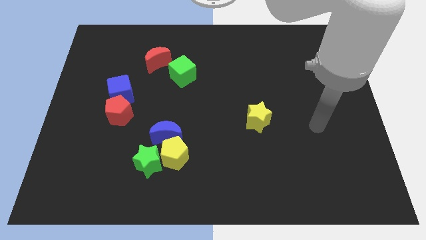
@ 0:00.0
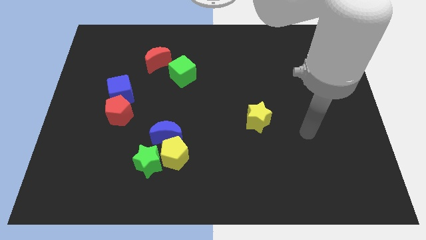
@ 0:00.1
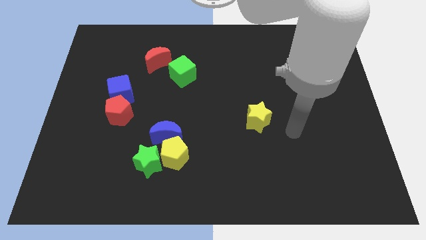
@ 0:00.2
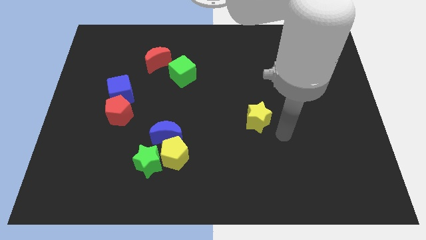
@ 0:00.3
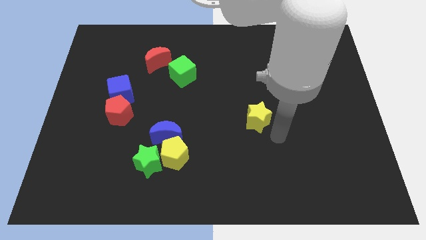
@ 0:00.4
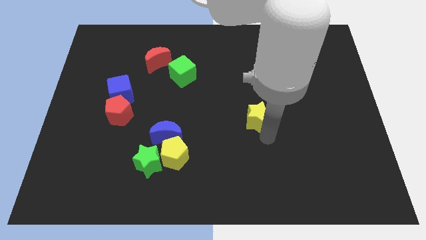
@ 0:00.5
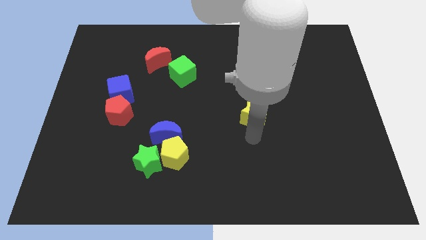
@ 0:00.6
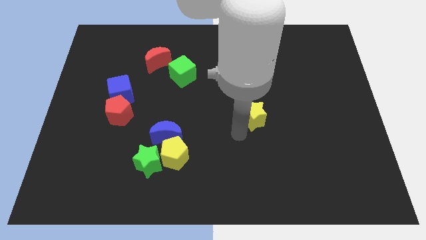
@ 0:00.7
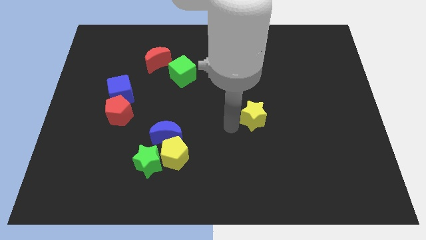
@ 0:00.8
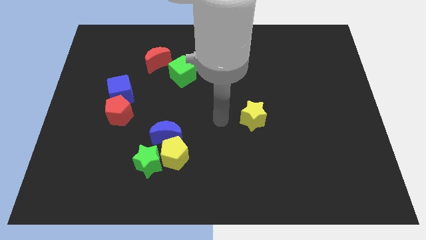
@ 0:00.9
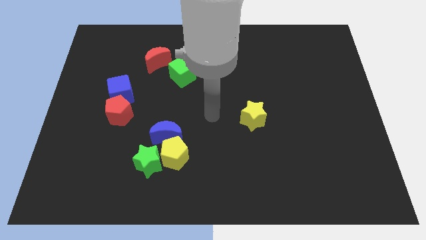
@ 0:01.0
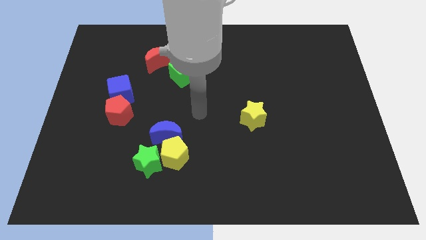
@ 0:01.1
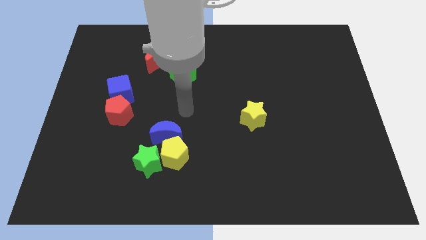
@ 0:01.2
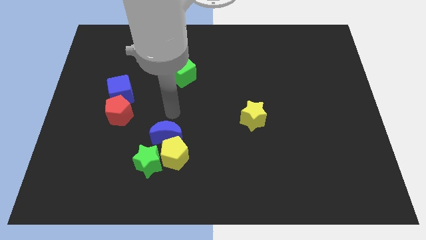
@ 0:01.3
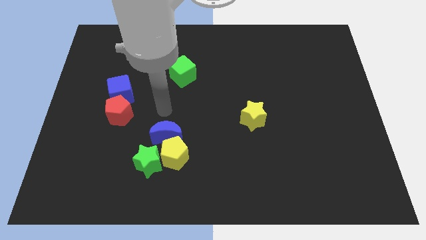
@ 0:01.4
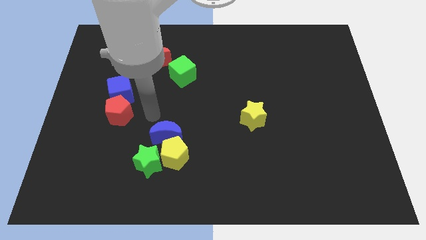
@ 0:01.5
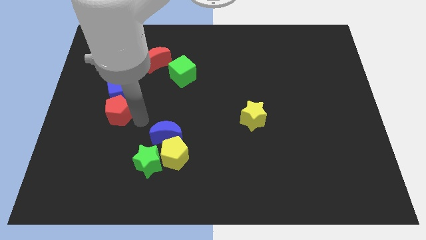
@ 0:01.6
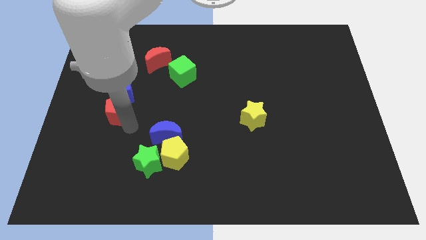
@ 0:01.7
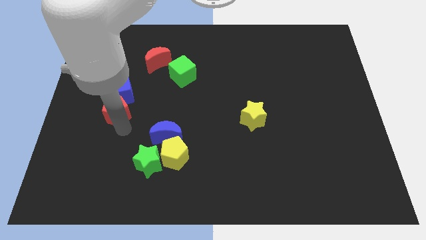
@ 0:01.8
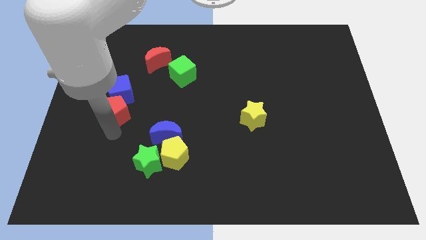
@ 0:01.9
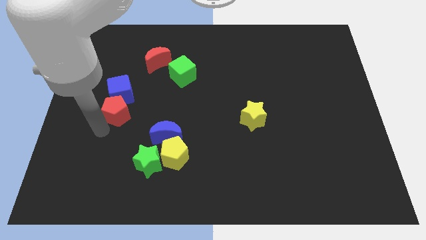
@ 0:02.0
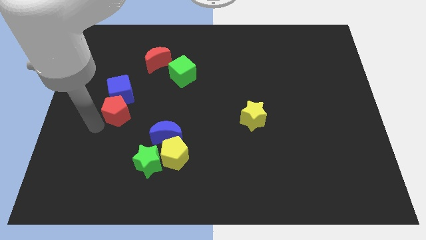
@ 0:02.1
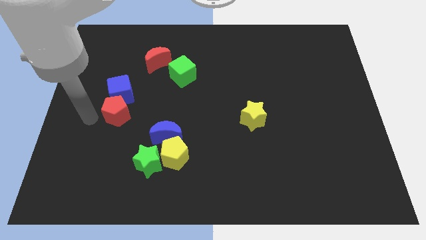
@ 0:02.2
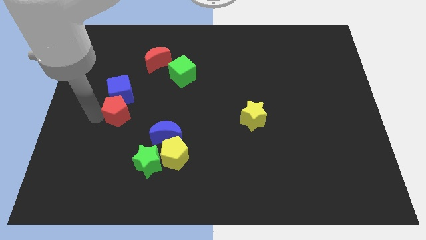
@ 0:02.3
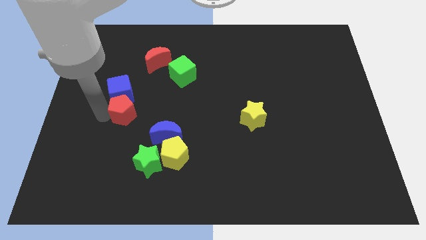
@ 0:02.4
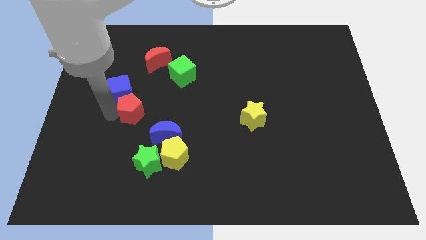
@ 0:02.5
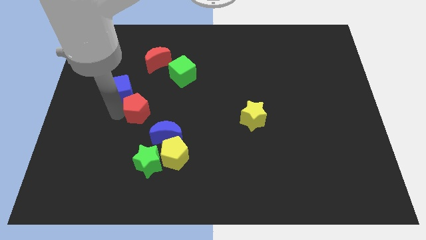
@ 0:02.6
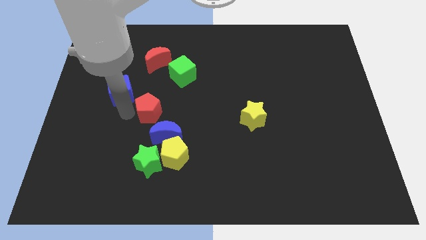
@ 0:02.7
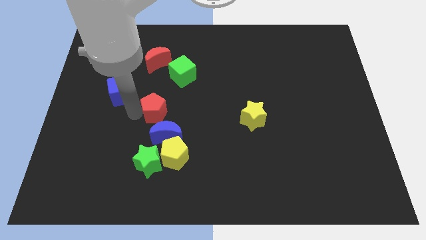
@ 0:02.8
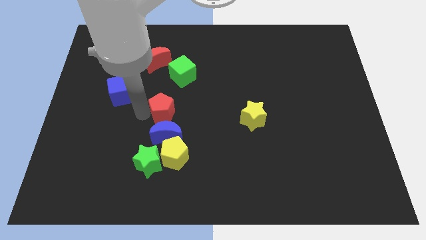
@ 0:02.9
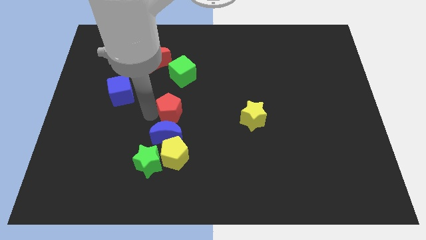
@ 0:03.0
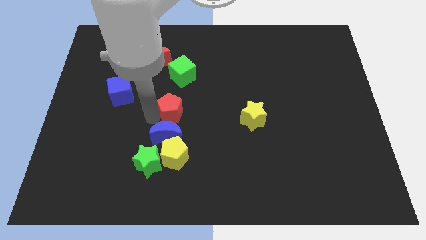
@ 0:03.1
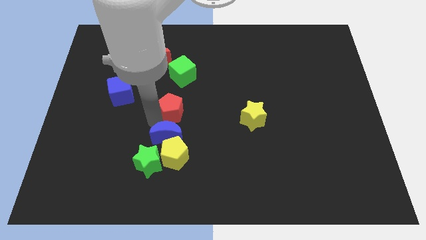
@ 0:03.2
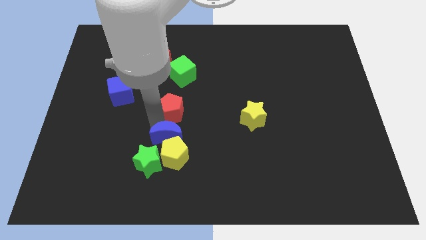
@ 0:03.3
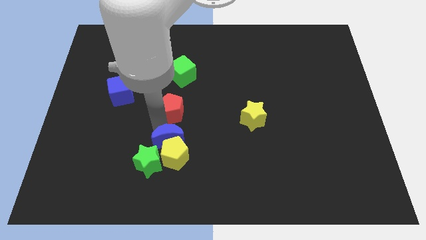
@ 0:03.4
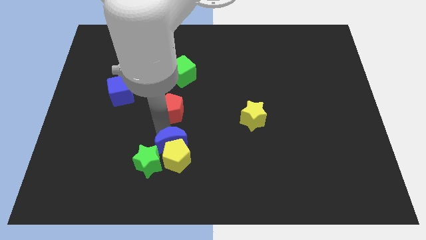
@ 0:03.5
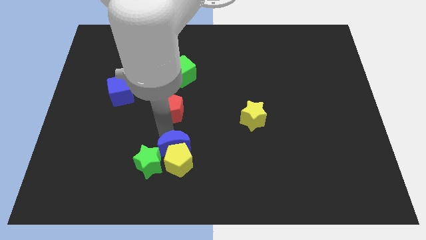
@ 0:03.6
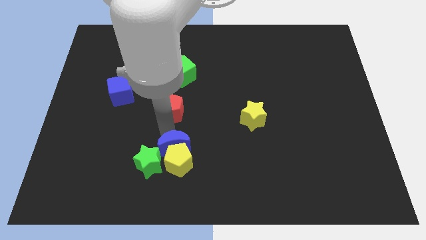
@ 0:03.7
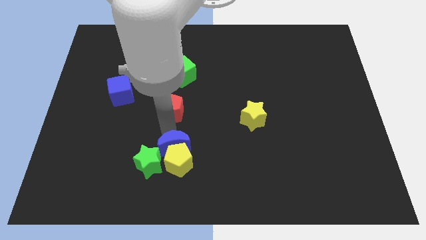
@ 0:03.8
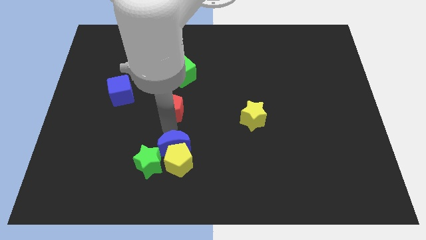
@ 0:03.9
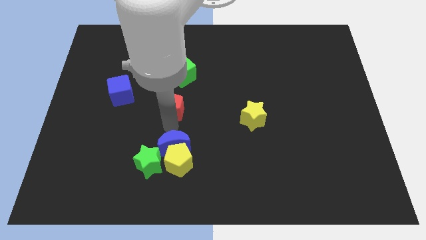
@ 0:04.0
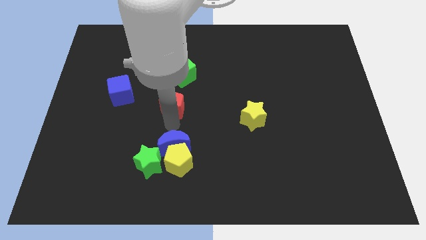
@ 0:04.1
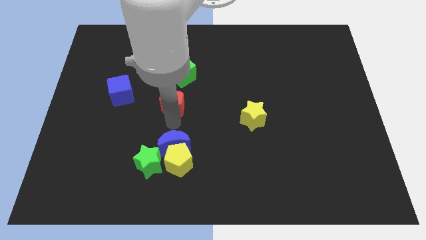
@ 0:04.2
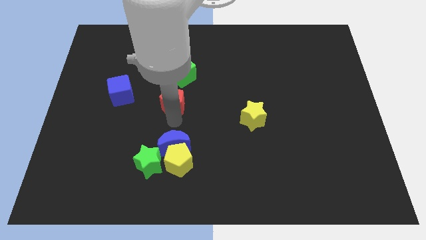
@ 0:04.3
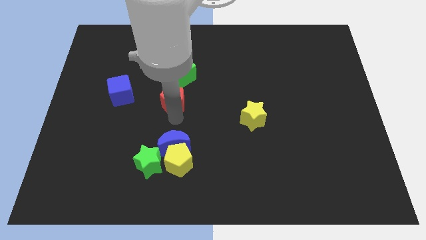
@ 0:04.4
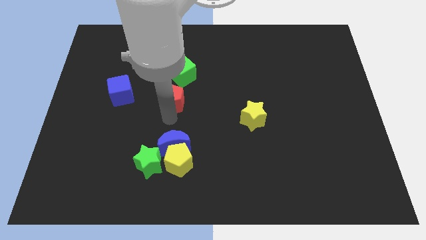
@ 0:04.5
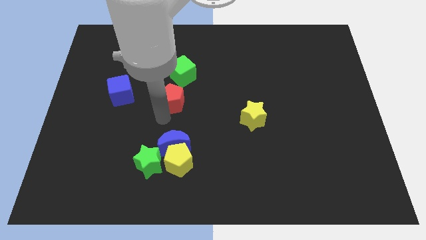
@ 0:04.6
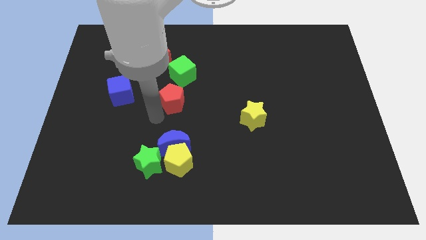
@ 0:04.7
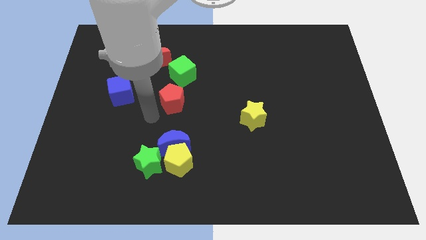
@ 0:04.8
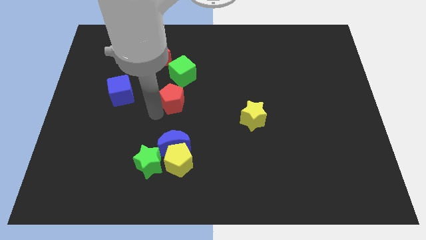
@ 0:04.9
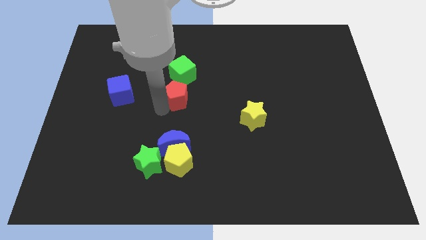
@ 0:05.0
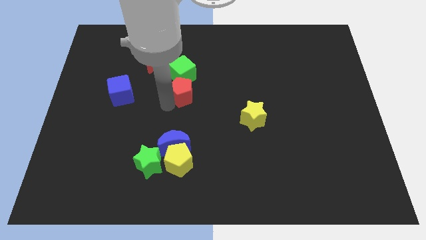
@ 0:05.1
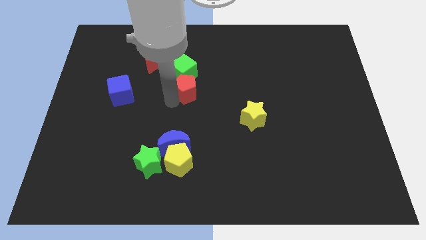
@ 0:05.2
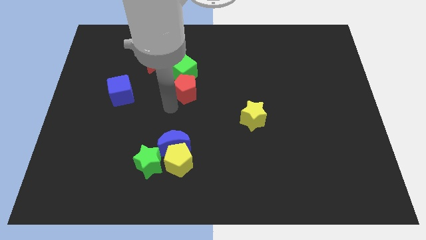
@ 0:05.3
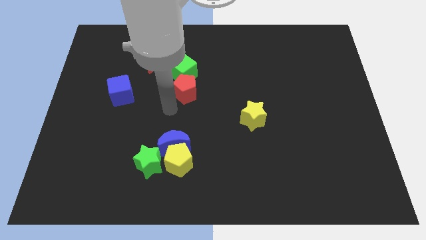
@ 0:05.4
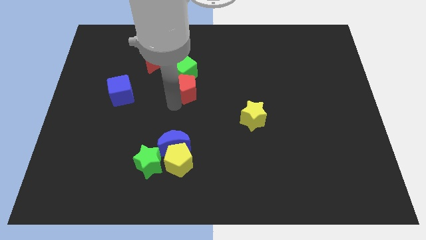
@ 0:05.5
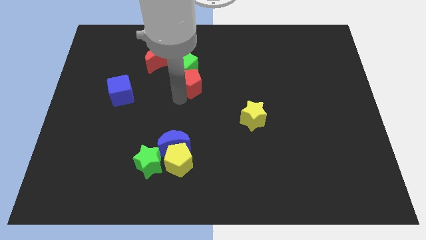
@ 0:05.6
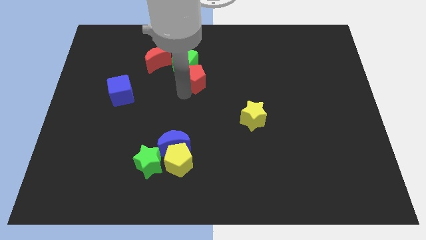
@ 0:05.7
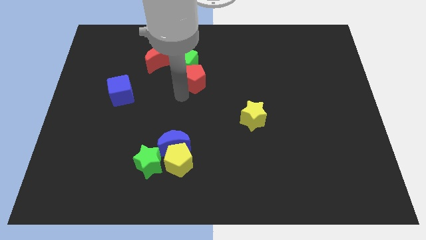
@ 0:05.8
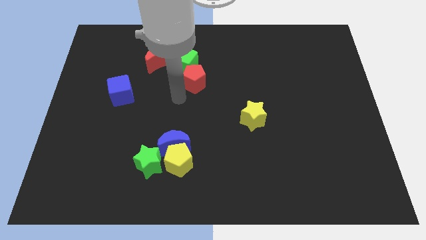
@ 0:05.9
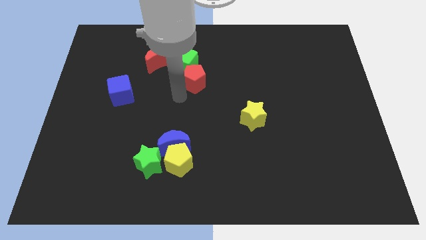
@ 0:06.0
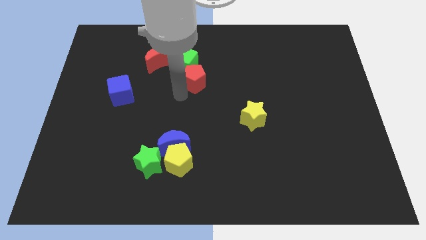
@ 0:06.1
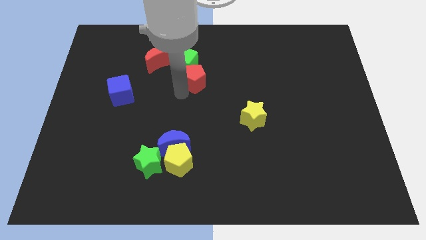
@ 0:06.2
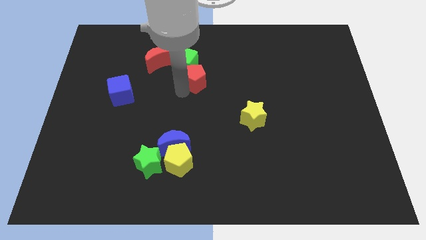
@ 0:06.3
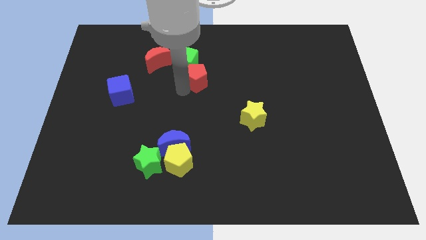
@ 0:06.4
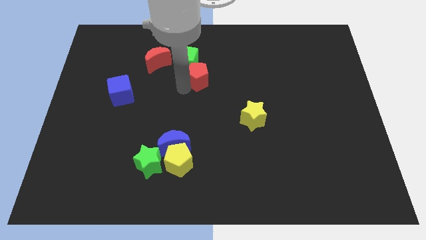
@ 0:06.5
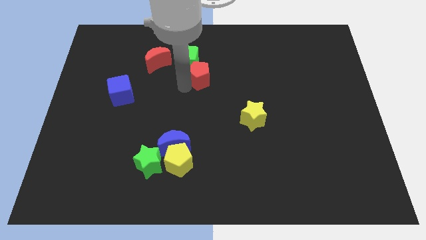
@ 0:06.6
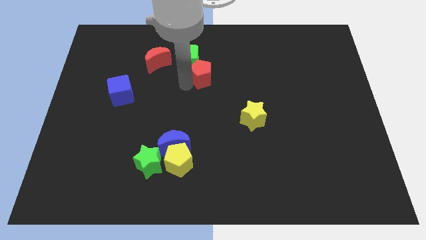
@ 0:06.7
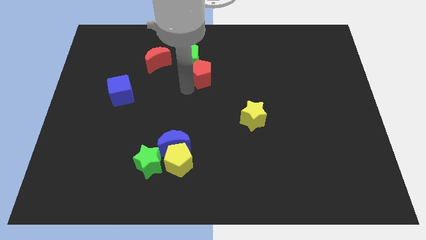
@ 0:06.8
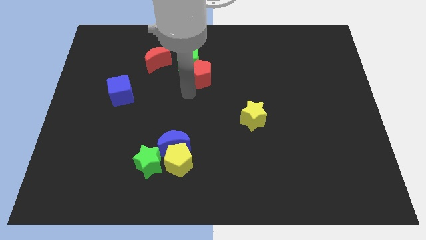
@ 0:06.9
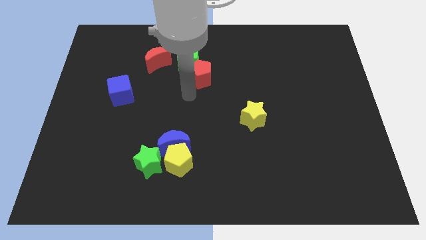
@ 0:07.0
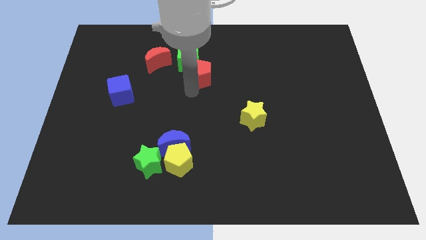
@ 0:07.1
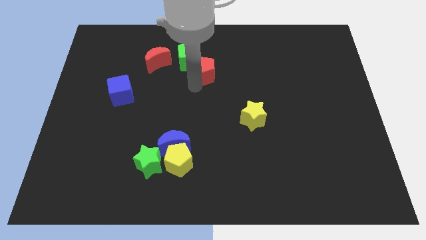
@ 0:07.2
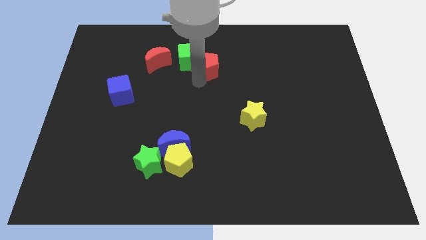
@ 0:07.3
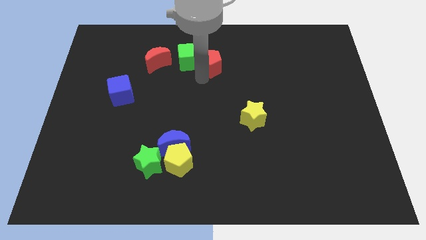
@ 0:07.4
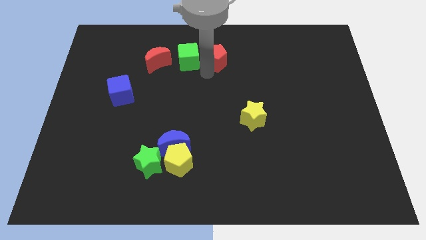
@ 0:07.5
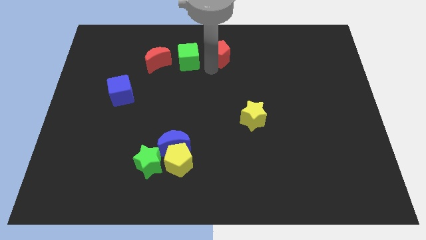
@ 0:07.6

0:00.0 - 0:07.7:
put the red pentagon to the towards your base
